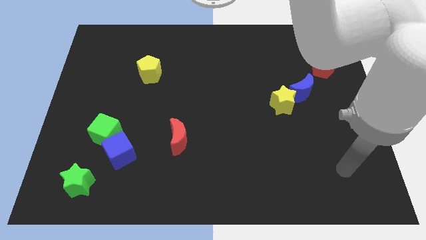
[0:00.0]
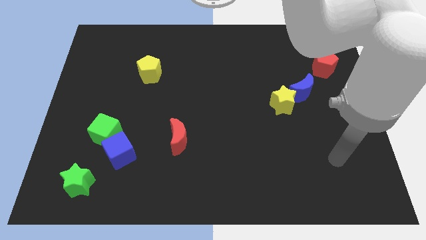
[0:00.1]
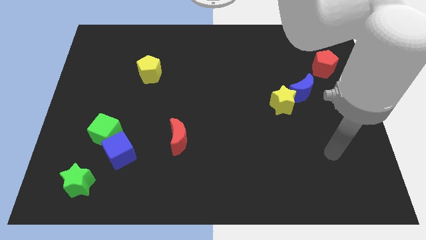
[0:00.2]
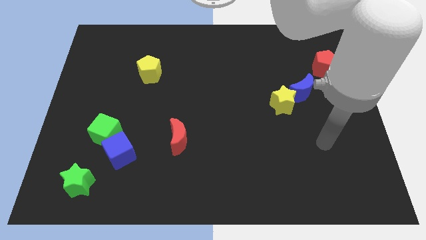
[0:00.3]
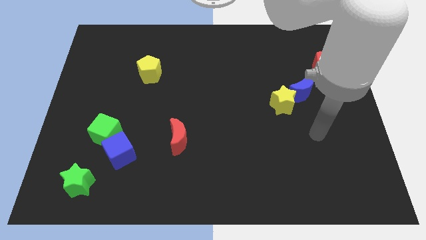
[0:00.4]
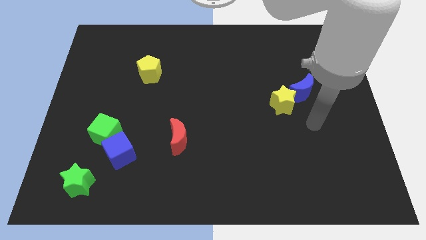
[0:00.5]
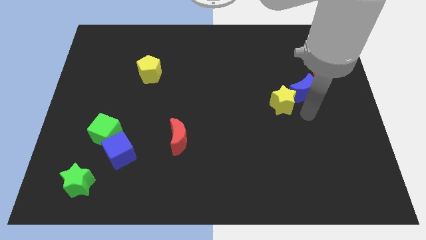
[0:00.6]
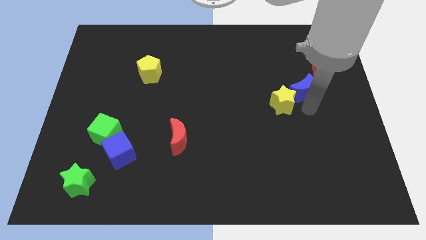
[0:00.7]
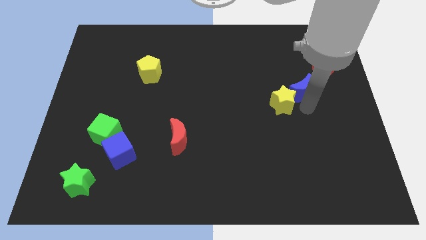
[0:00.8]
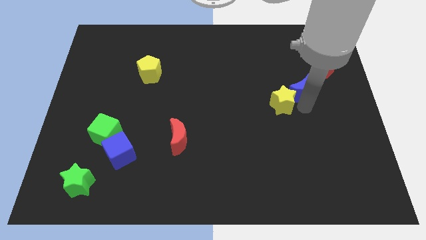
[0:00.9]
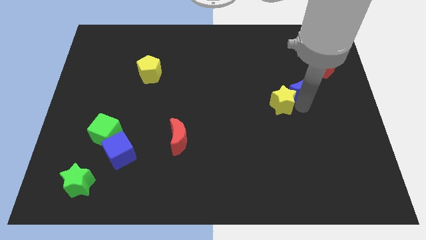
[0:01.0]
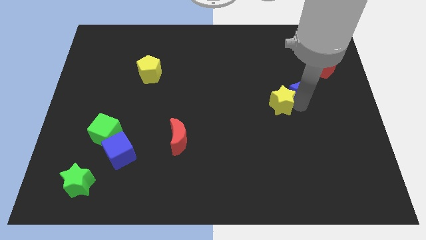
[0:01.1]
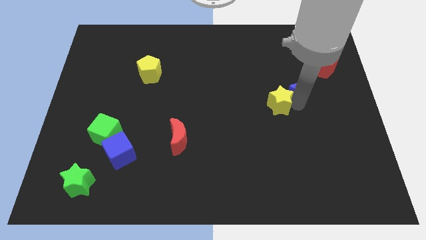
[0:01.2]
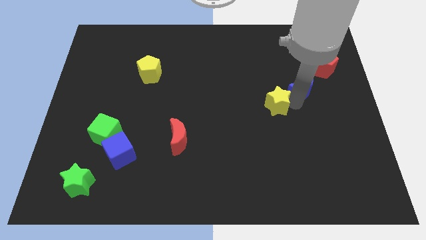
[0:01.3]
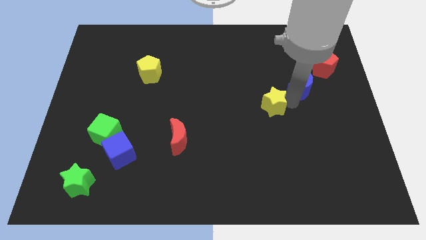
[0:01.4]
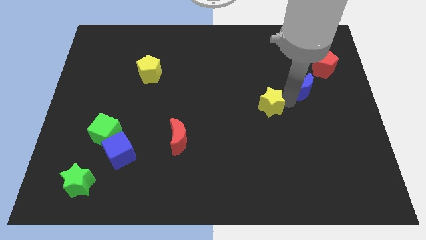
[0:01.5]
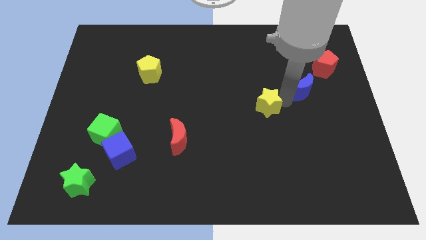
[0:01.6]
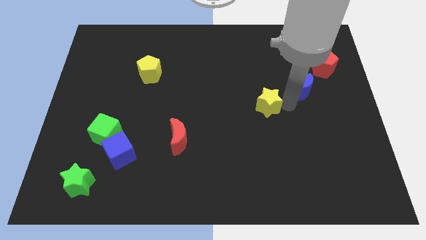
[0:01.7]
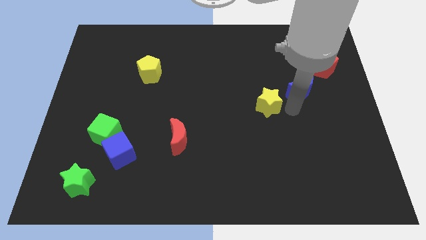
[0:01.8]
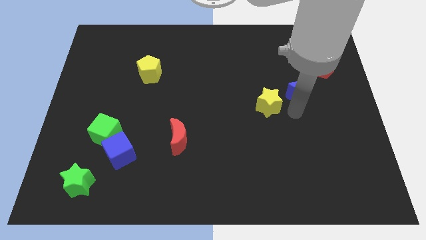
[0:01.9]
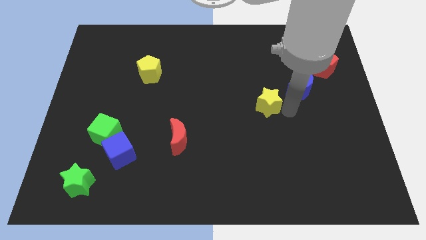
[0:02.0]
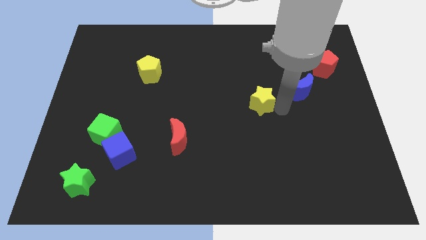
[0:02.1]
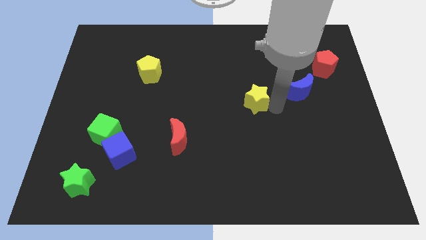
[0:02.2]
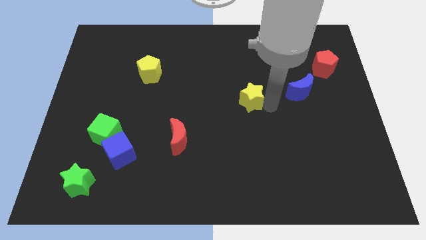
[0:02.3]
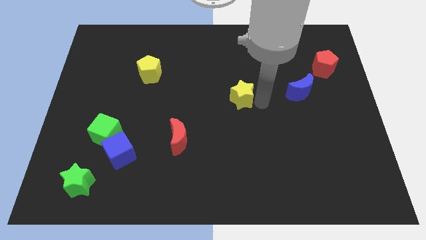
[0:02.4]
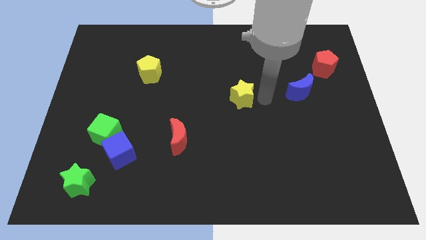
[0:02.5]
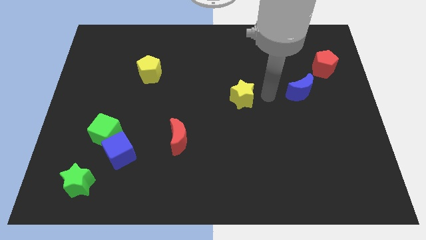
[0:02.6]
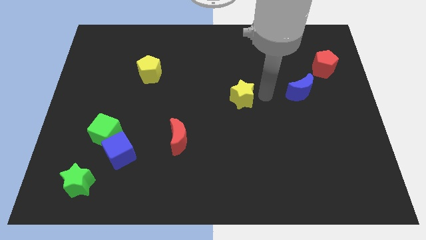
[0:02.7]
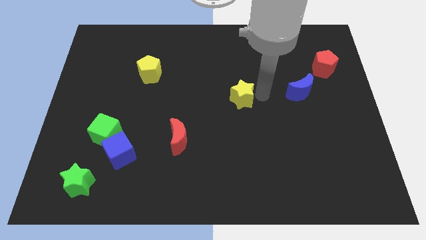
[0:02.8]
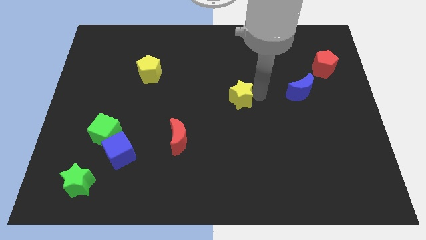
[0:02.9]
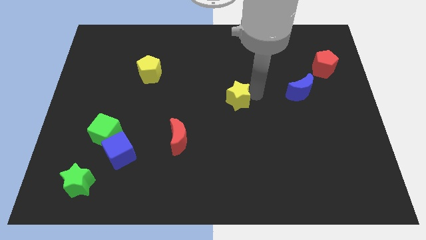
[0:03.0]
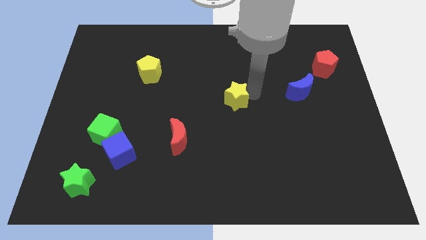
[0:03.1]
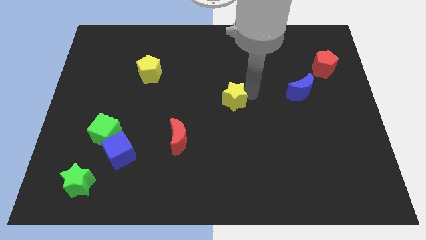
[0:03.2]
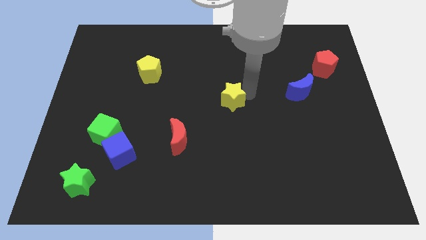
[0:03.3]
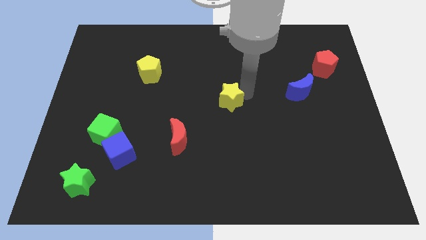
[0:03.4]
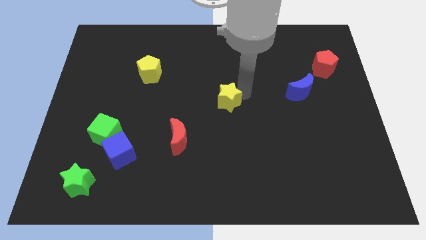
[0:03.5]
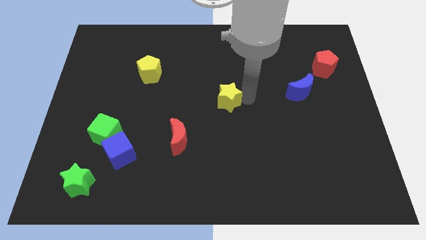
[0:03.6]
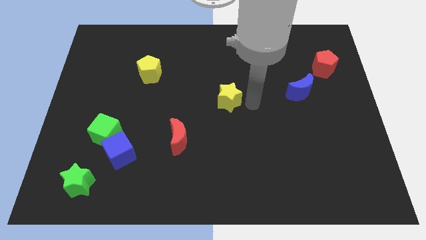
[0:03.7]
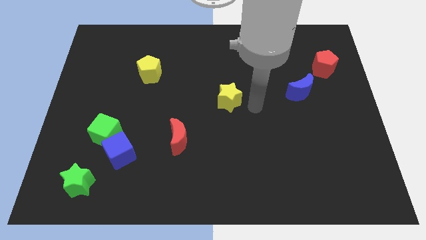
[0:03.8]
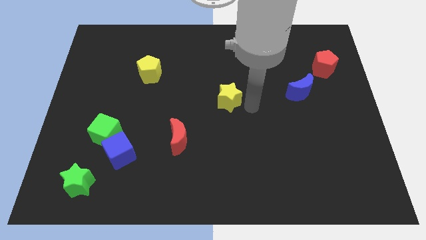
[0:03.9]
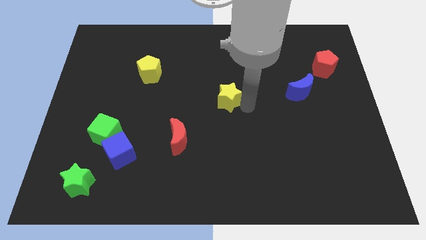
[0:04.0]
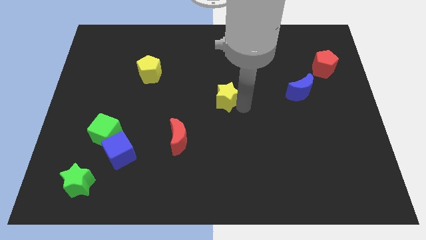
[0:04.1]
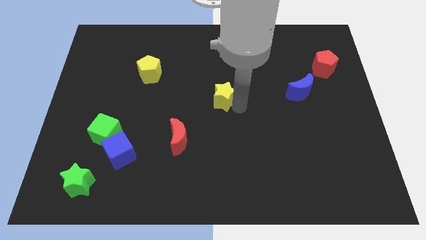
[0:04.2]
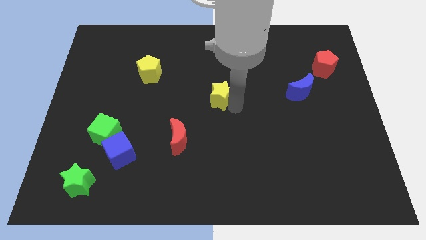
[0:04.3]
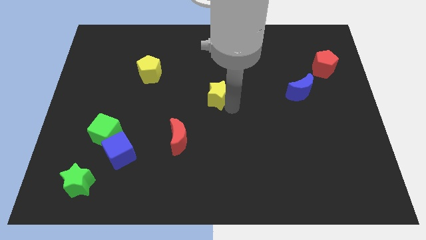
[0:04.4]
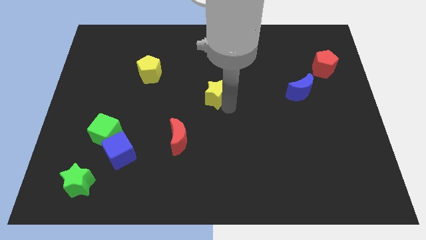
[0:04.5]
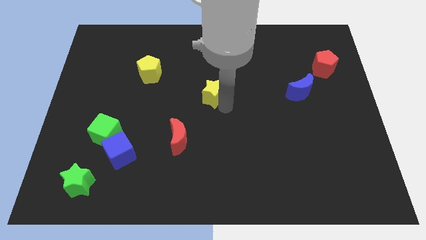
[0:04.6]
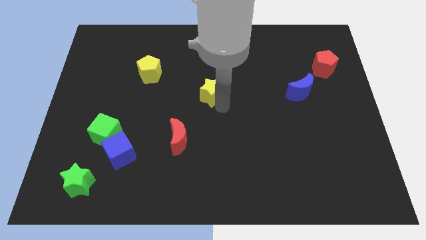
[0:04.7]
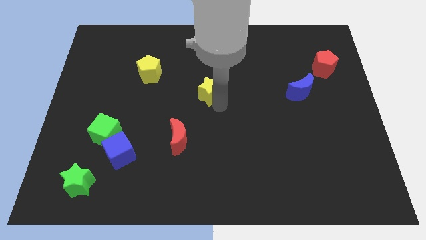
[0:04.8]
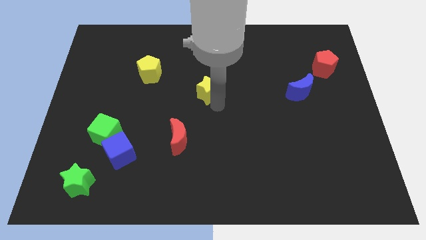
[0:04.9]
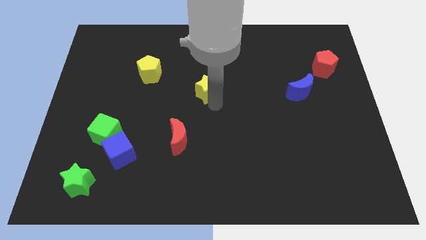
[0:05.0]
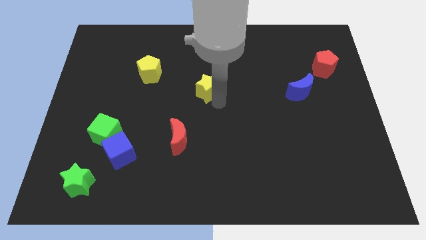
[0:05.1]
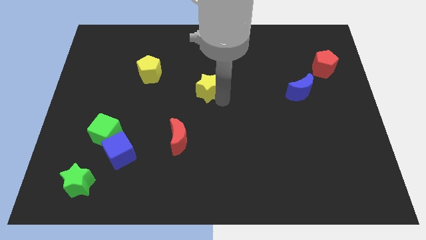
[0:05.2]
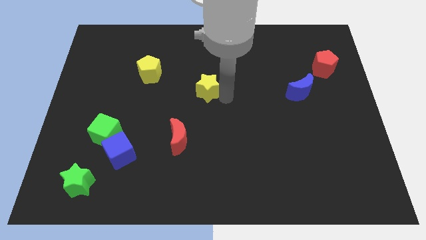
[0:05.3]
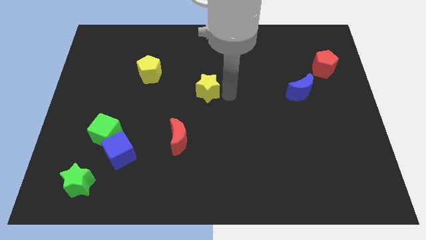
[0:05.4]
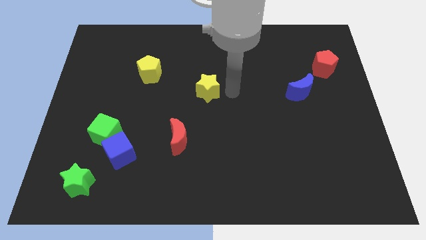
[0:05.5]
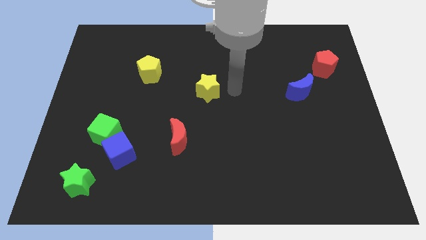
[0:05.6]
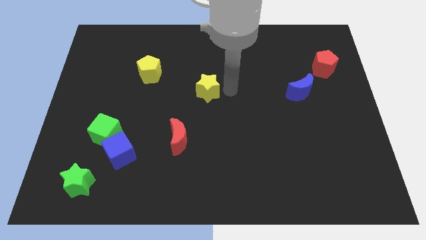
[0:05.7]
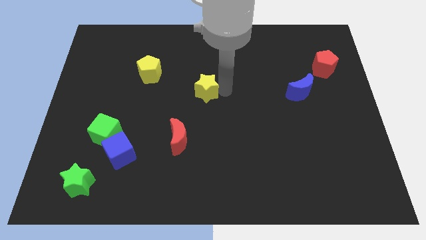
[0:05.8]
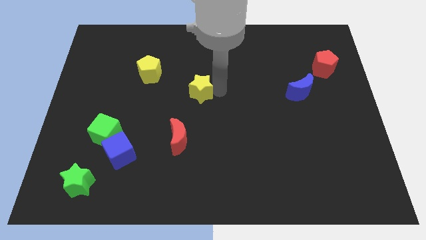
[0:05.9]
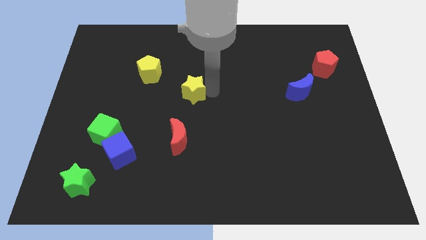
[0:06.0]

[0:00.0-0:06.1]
move the yellow star left

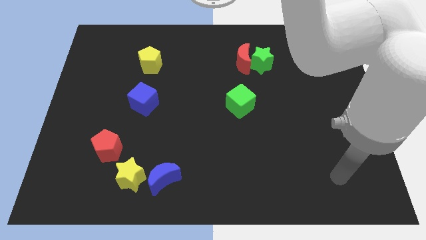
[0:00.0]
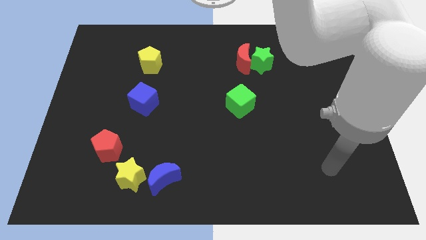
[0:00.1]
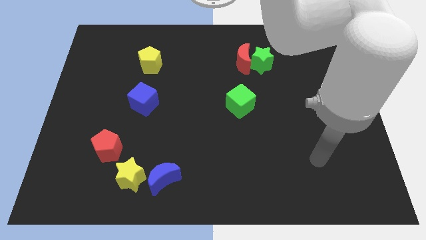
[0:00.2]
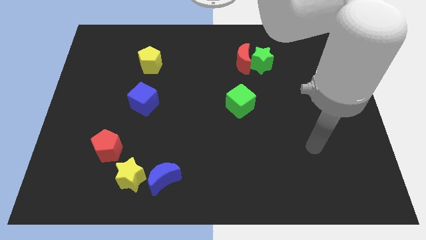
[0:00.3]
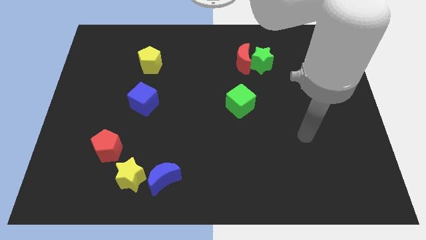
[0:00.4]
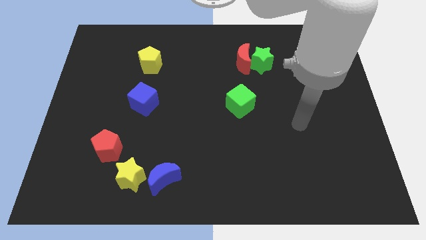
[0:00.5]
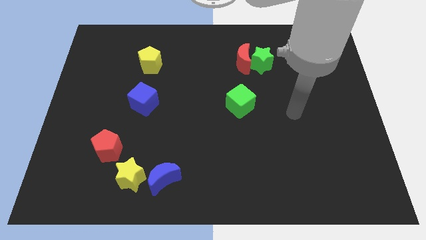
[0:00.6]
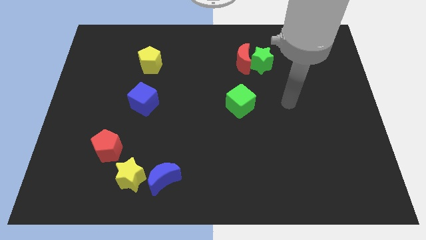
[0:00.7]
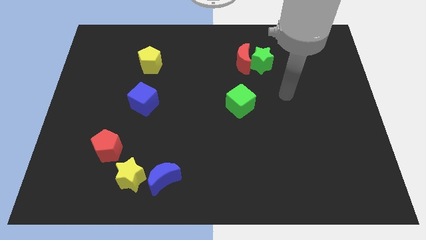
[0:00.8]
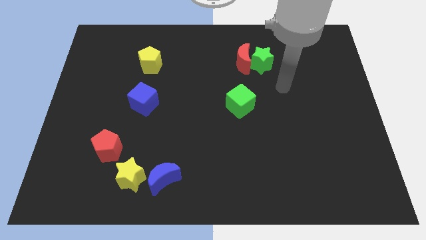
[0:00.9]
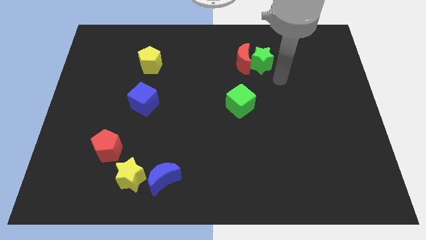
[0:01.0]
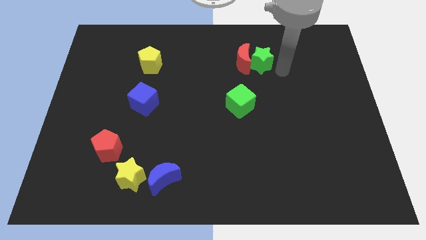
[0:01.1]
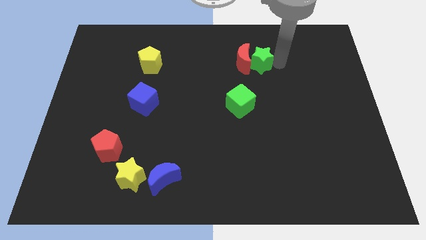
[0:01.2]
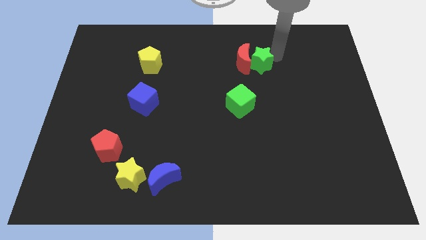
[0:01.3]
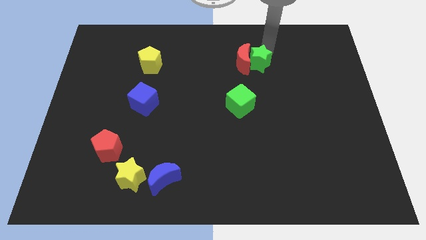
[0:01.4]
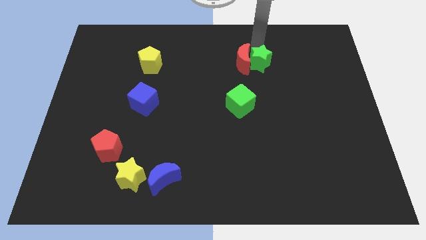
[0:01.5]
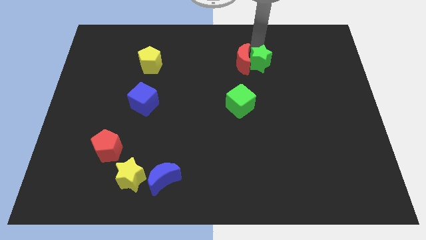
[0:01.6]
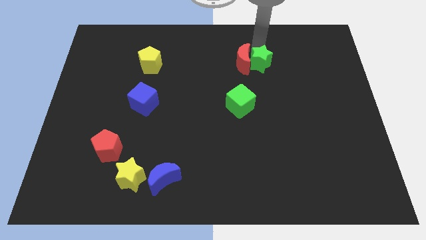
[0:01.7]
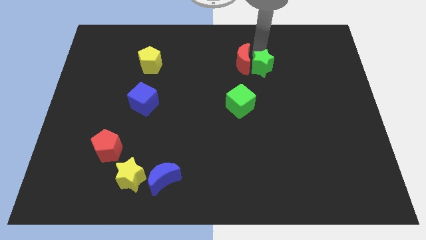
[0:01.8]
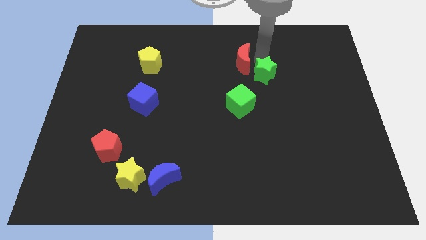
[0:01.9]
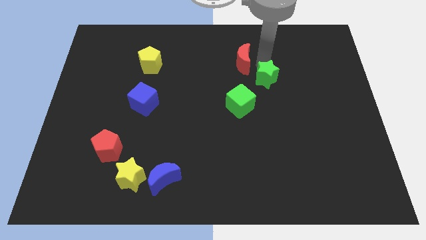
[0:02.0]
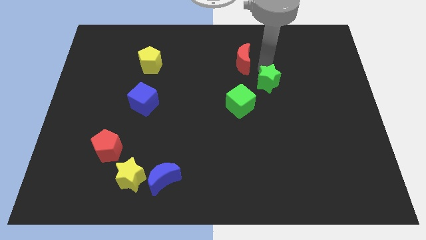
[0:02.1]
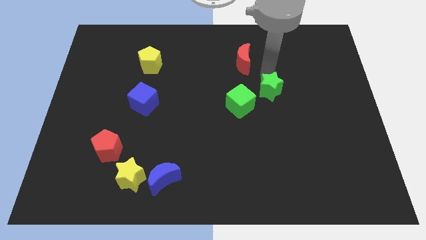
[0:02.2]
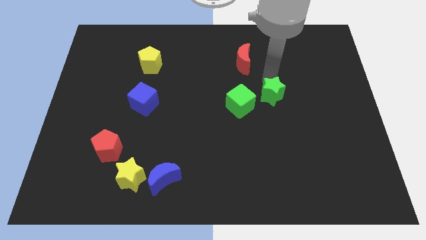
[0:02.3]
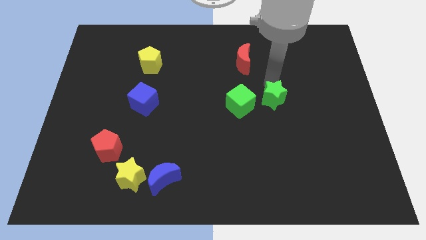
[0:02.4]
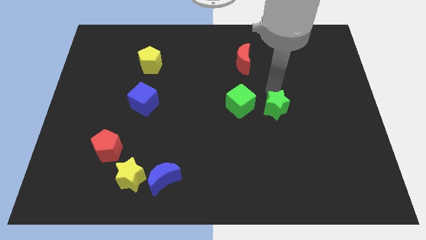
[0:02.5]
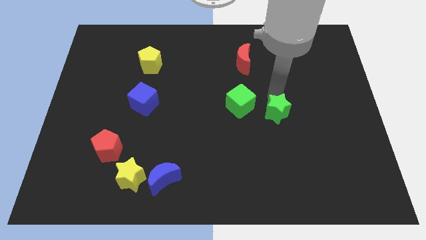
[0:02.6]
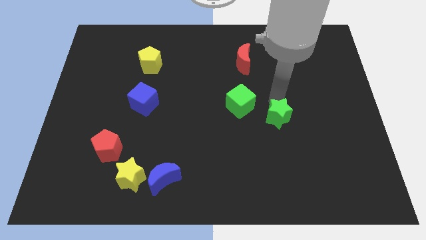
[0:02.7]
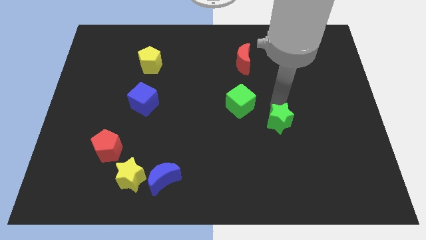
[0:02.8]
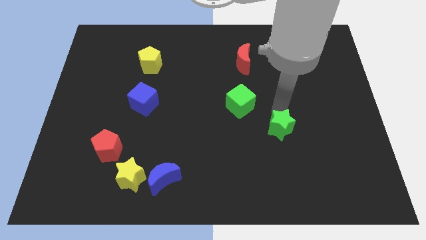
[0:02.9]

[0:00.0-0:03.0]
push the green star downwards
